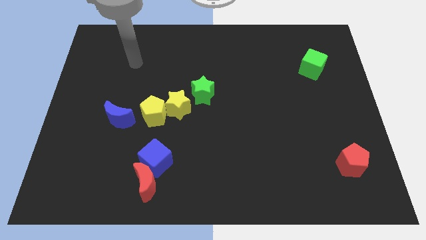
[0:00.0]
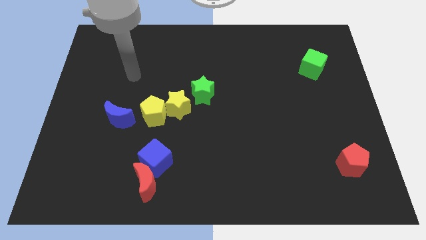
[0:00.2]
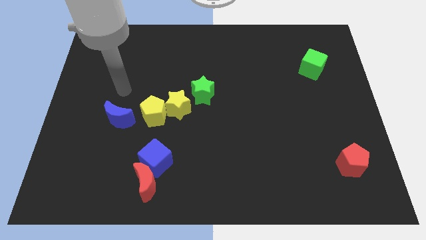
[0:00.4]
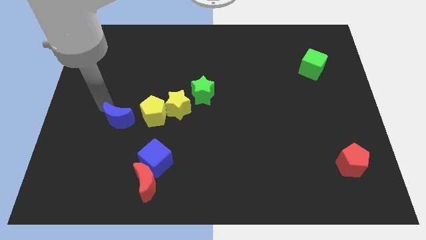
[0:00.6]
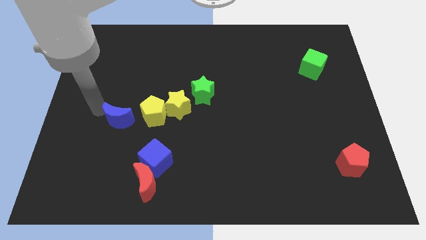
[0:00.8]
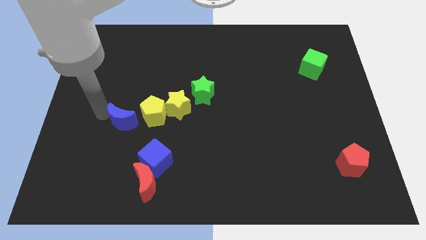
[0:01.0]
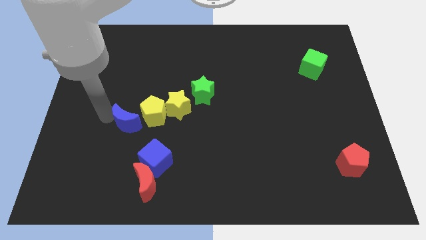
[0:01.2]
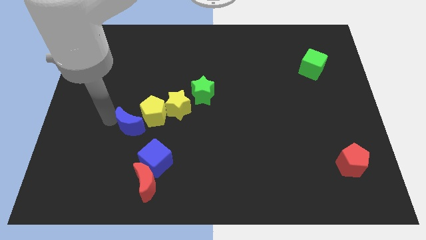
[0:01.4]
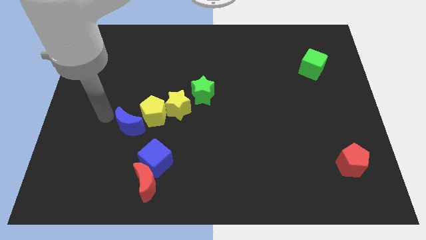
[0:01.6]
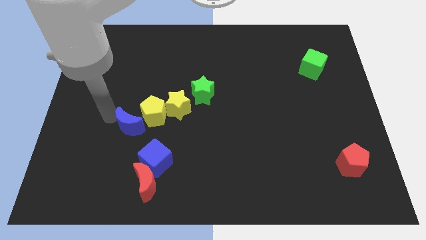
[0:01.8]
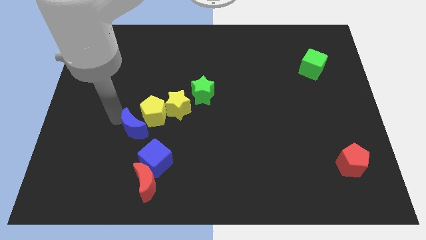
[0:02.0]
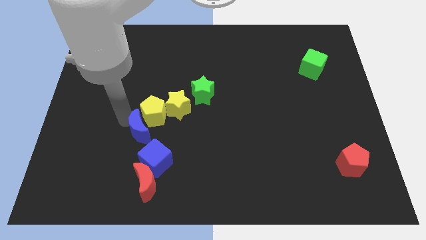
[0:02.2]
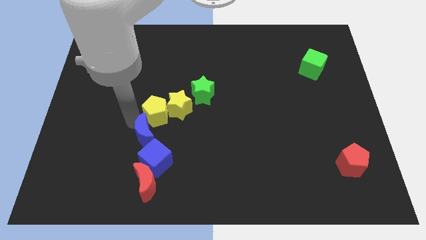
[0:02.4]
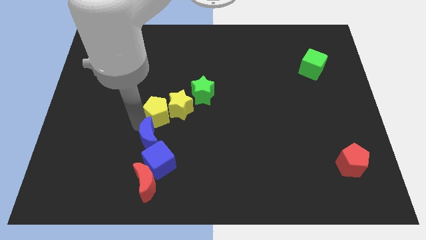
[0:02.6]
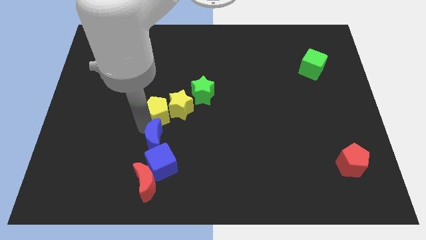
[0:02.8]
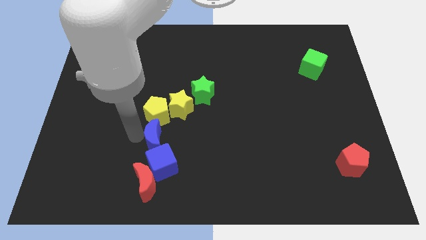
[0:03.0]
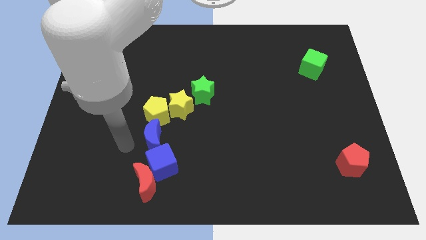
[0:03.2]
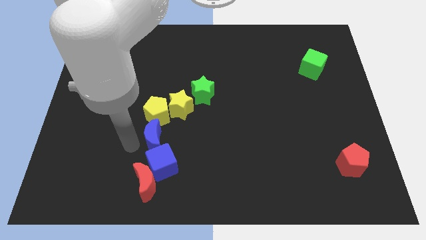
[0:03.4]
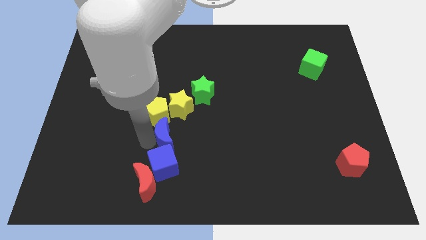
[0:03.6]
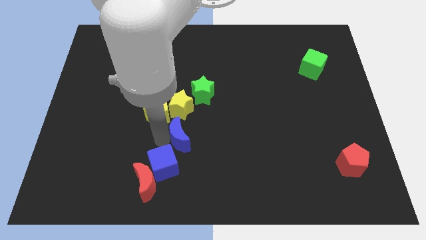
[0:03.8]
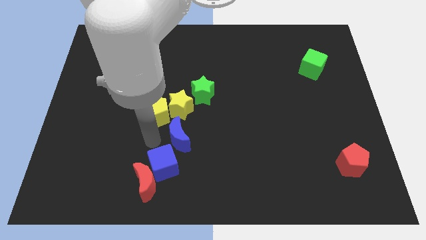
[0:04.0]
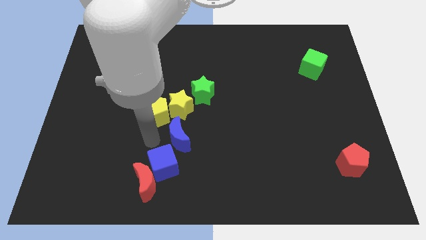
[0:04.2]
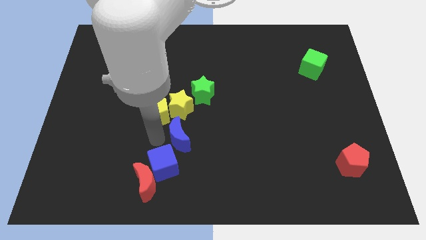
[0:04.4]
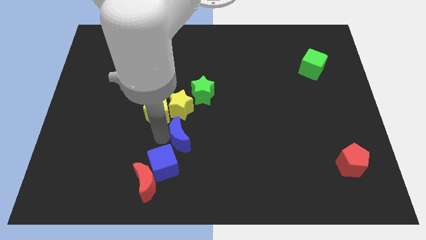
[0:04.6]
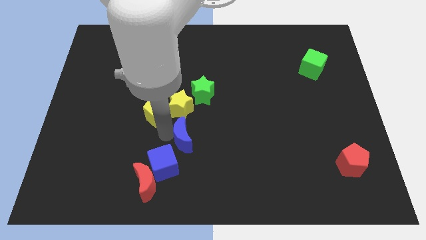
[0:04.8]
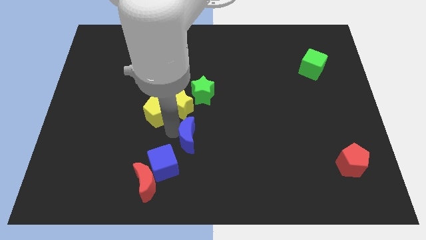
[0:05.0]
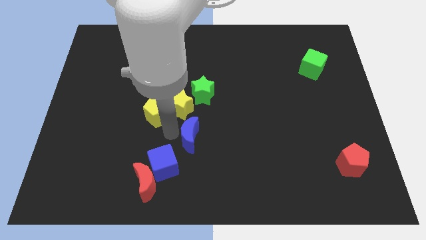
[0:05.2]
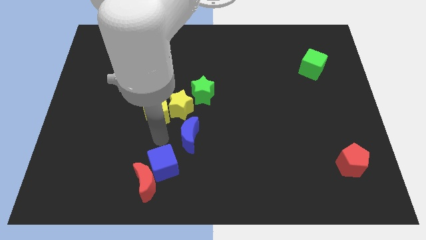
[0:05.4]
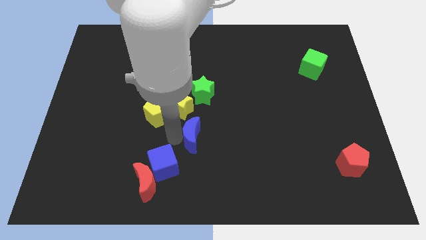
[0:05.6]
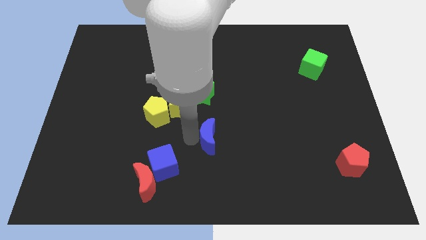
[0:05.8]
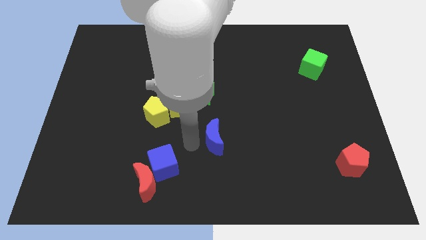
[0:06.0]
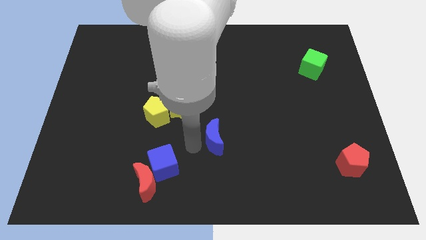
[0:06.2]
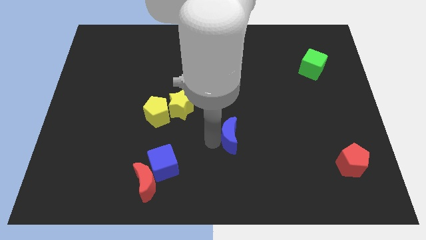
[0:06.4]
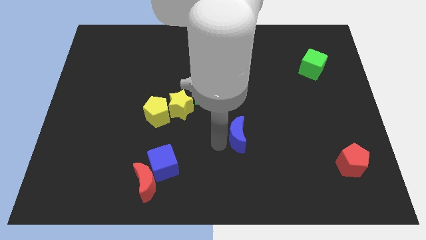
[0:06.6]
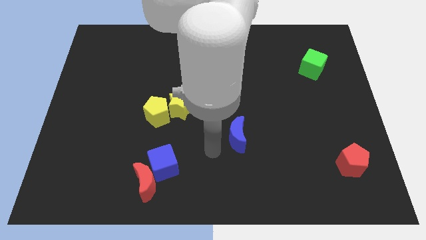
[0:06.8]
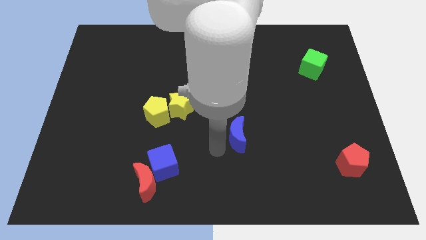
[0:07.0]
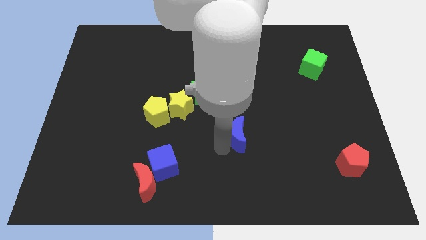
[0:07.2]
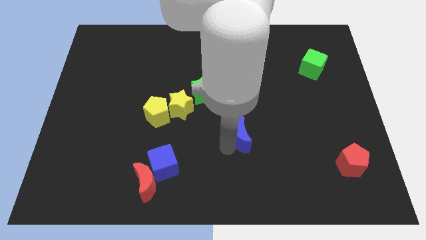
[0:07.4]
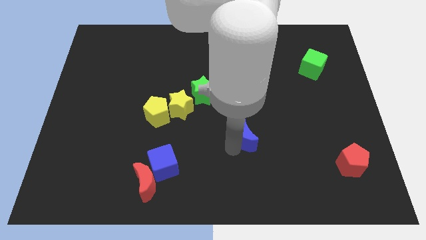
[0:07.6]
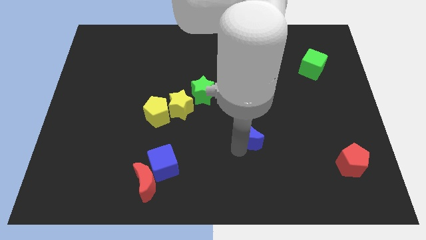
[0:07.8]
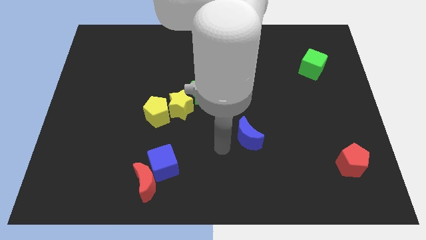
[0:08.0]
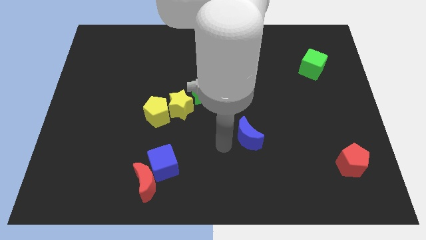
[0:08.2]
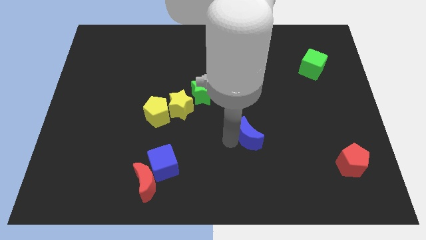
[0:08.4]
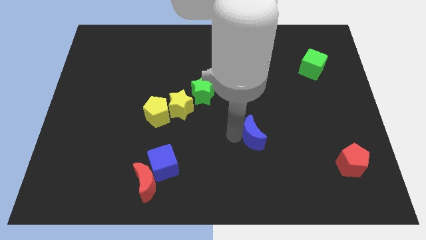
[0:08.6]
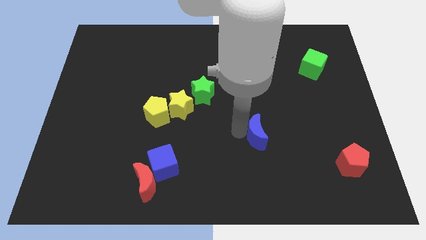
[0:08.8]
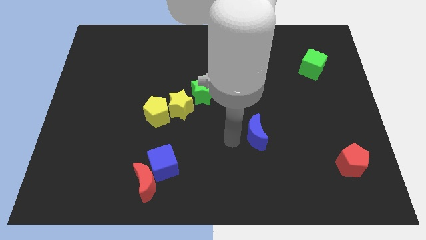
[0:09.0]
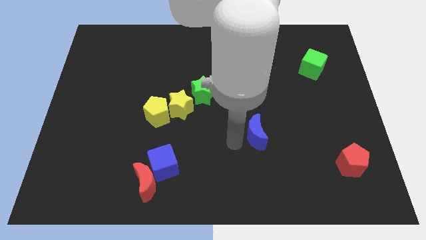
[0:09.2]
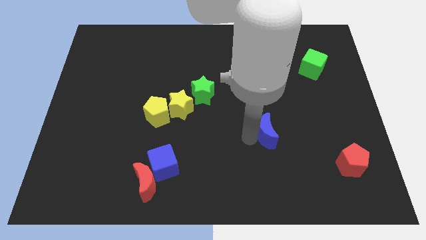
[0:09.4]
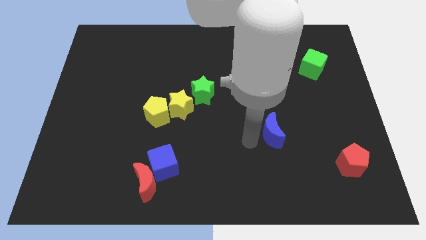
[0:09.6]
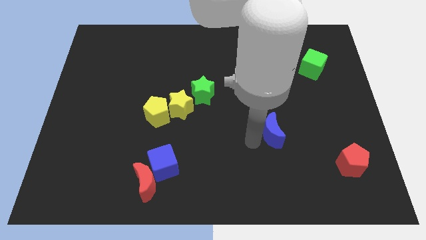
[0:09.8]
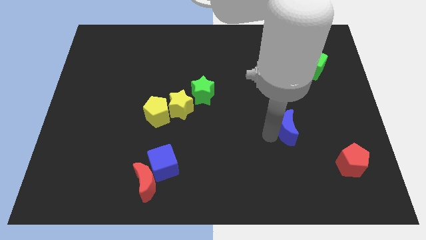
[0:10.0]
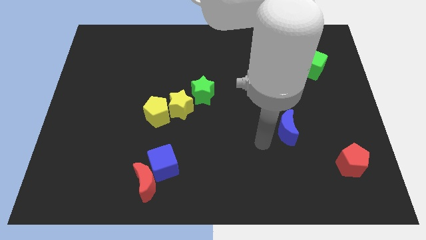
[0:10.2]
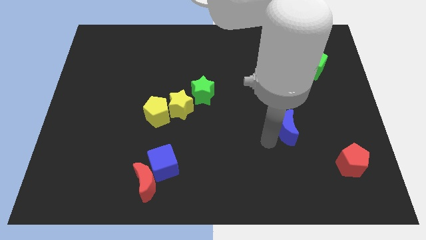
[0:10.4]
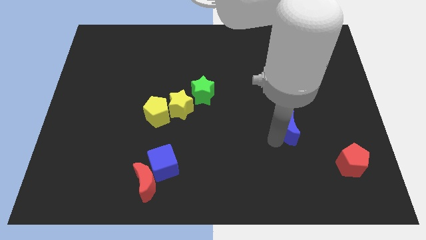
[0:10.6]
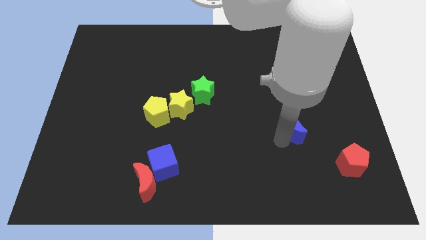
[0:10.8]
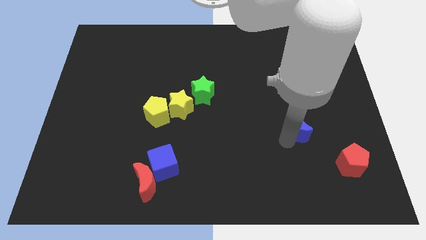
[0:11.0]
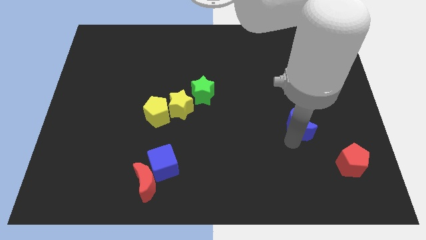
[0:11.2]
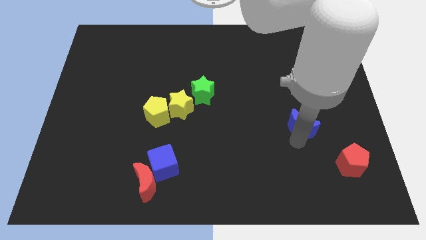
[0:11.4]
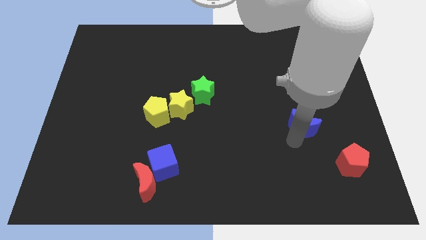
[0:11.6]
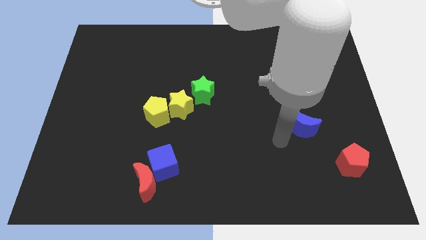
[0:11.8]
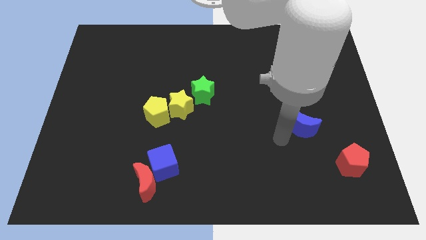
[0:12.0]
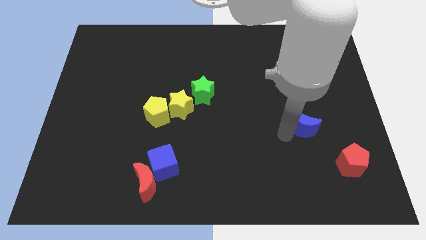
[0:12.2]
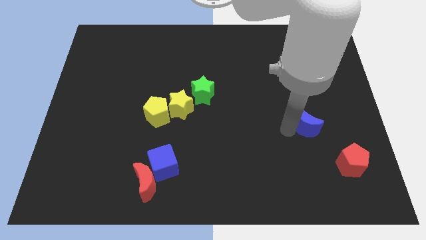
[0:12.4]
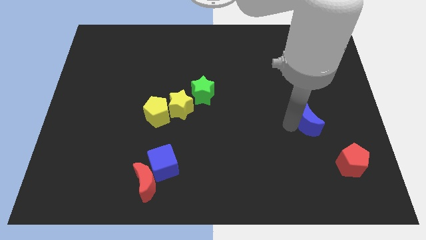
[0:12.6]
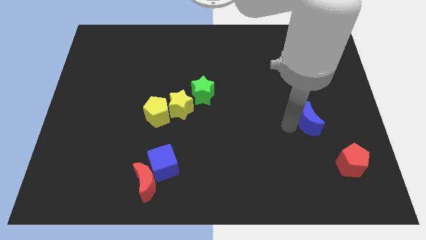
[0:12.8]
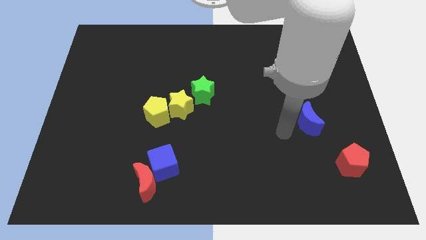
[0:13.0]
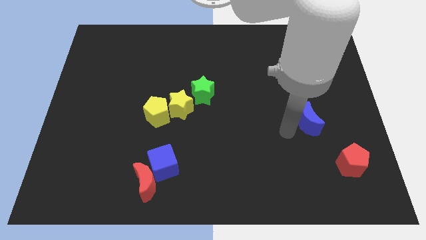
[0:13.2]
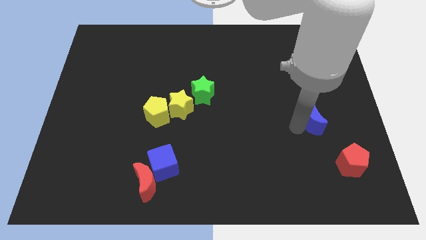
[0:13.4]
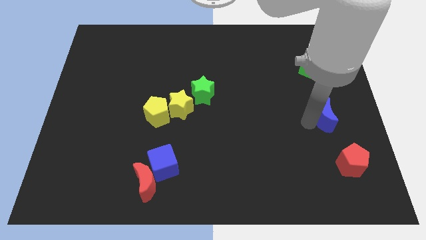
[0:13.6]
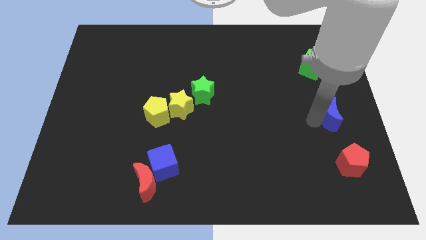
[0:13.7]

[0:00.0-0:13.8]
slide the blue moon to the center right
